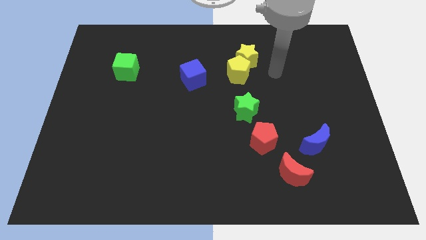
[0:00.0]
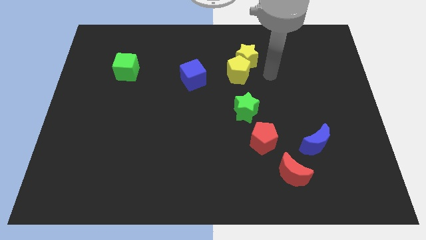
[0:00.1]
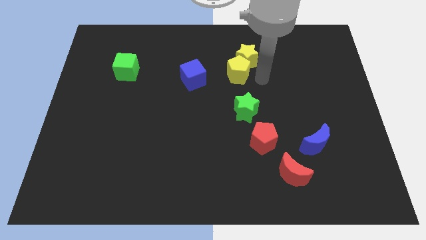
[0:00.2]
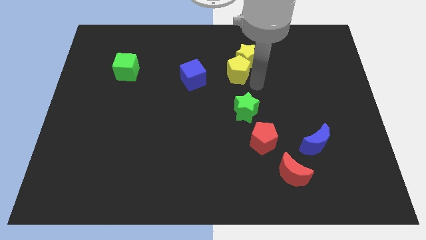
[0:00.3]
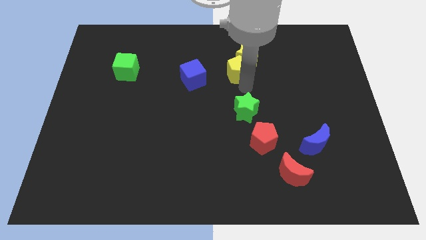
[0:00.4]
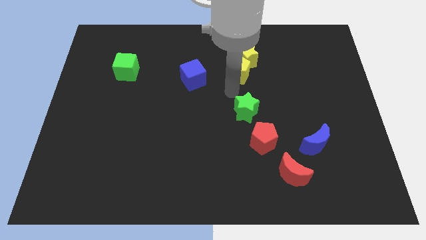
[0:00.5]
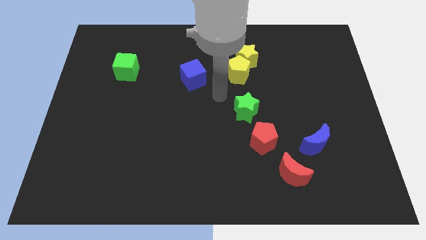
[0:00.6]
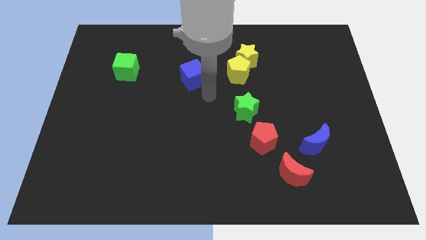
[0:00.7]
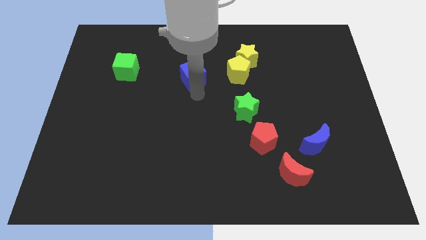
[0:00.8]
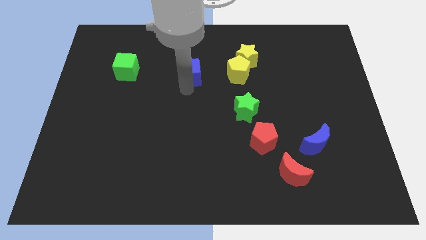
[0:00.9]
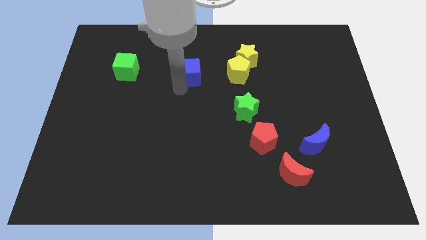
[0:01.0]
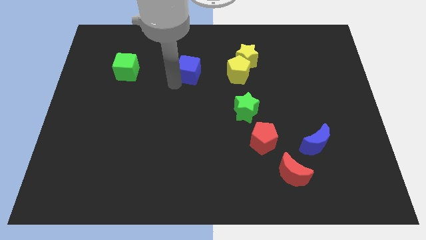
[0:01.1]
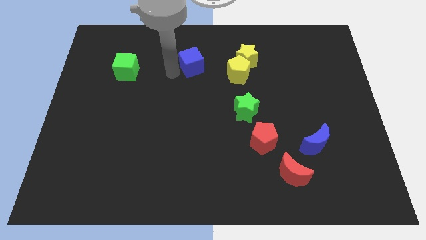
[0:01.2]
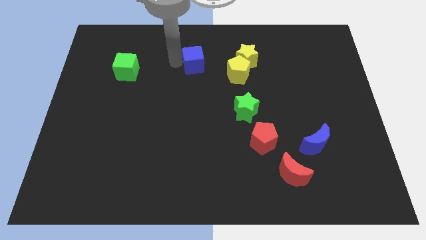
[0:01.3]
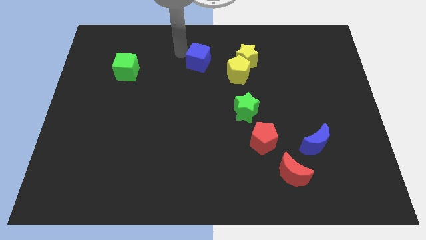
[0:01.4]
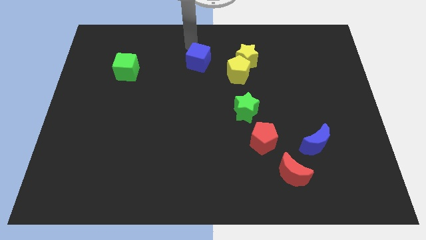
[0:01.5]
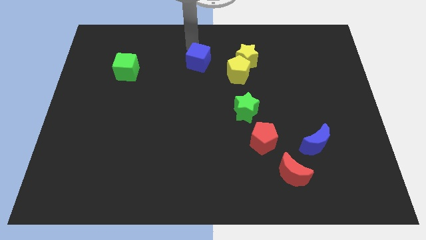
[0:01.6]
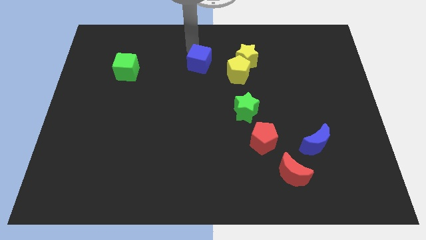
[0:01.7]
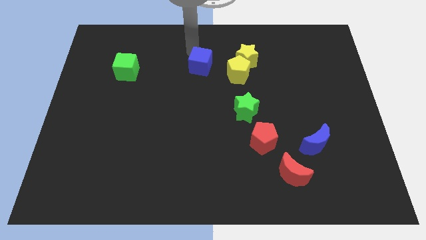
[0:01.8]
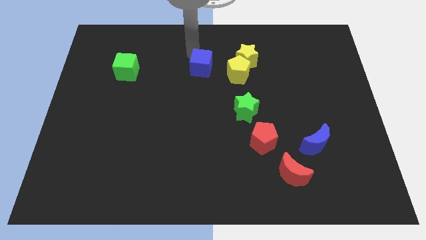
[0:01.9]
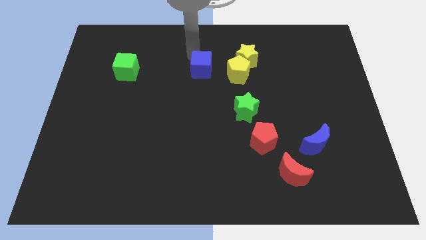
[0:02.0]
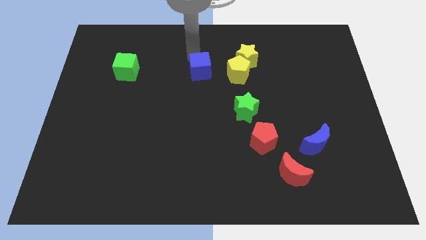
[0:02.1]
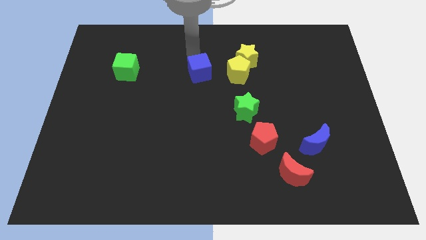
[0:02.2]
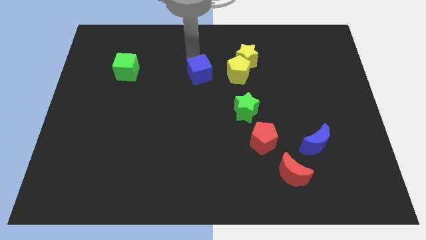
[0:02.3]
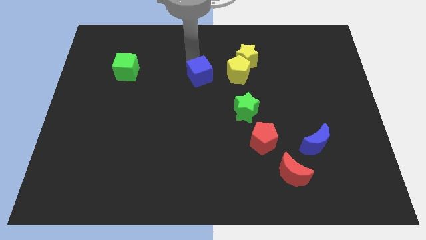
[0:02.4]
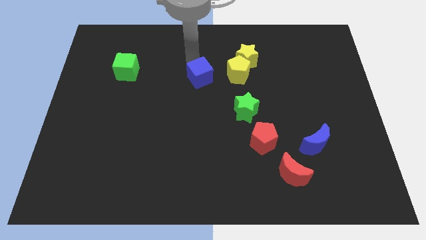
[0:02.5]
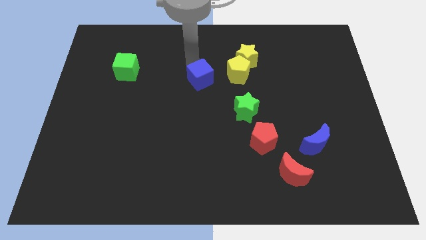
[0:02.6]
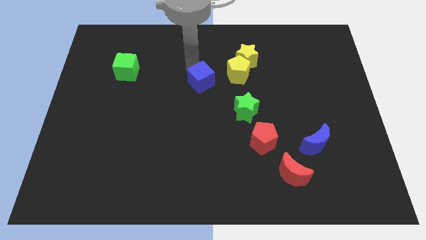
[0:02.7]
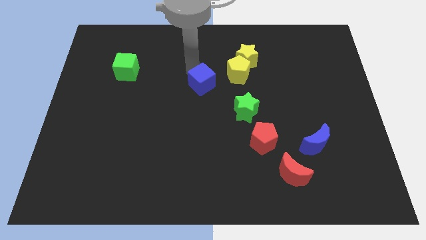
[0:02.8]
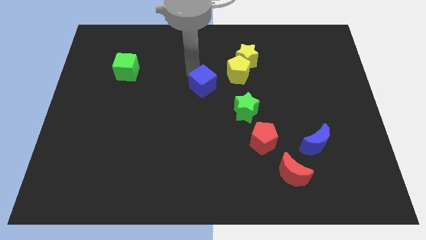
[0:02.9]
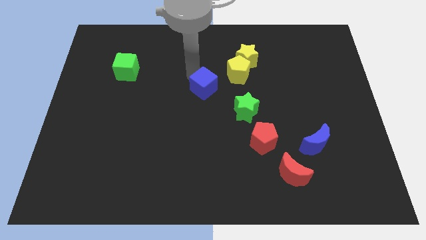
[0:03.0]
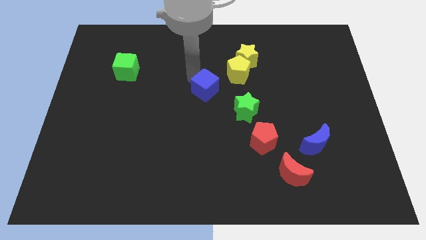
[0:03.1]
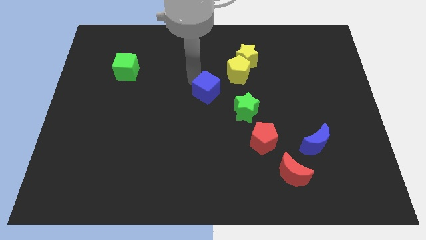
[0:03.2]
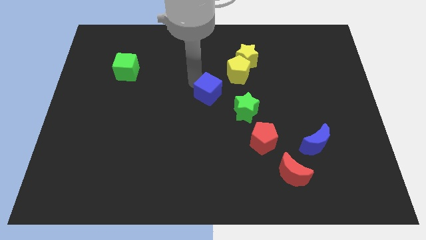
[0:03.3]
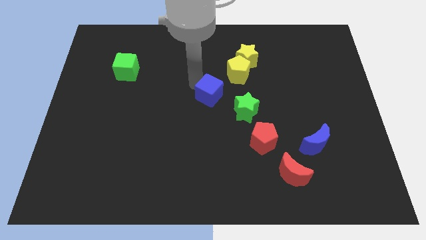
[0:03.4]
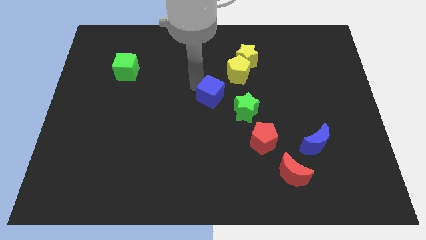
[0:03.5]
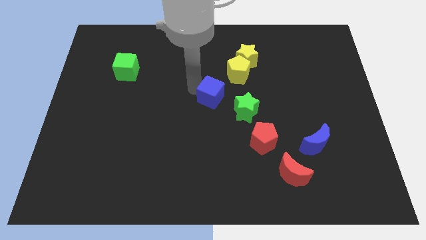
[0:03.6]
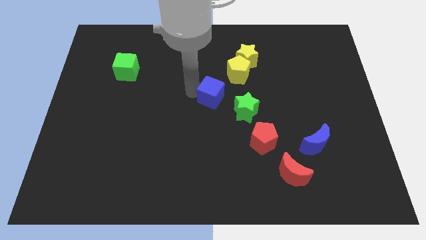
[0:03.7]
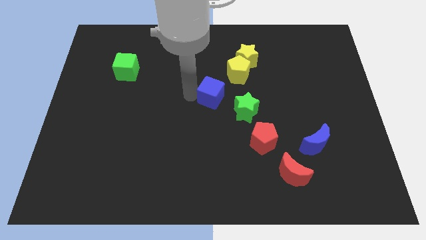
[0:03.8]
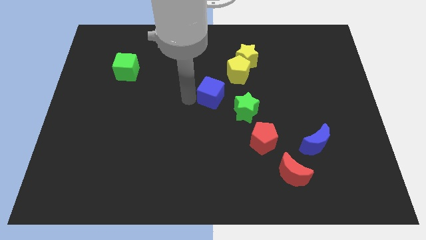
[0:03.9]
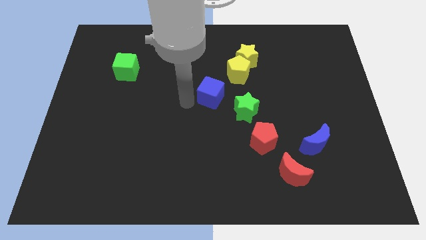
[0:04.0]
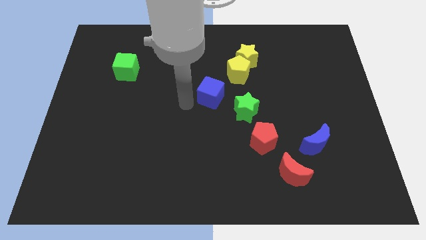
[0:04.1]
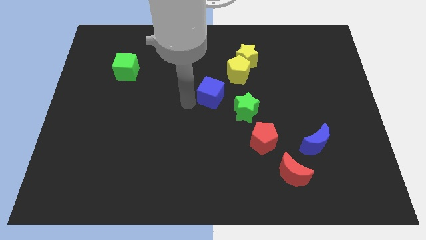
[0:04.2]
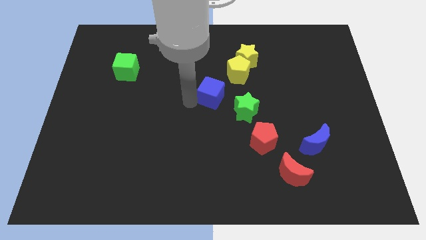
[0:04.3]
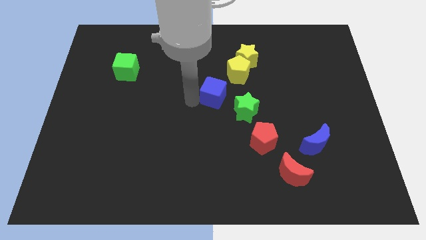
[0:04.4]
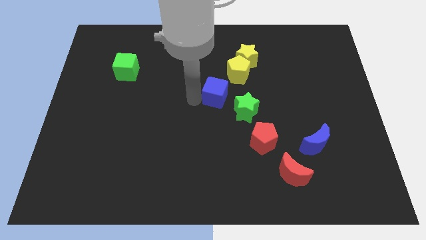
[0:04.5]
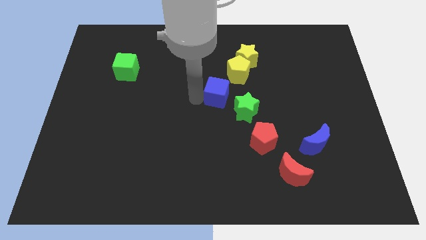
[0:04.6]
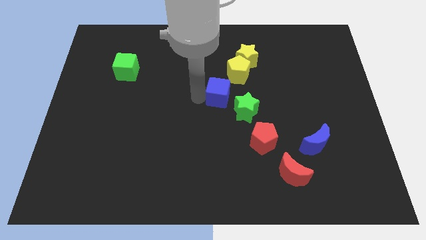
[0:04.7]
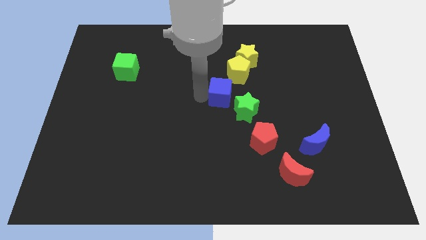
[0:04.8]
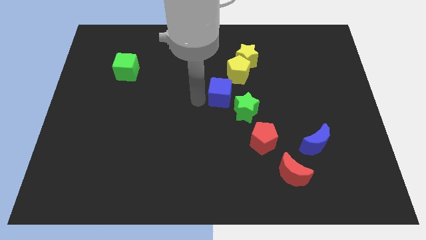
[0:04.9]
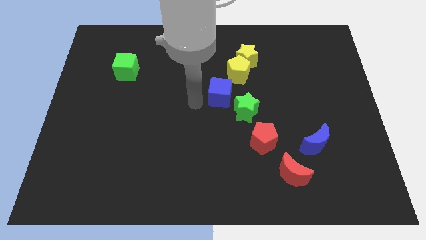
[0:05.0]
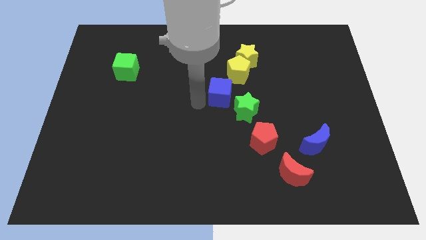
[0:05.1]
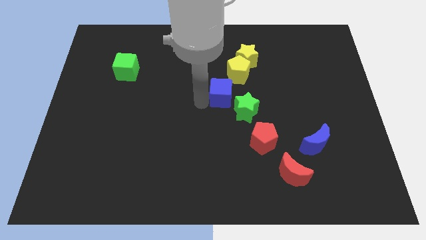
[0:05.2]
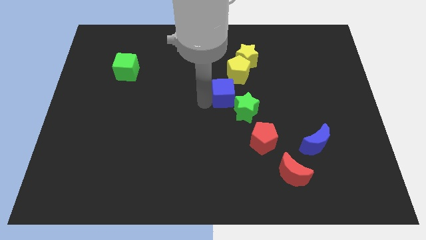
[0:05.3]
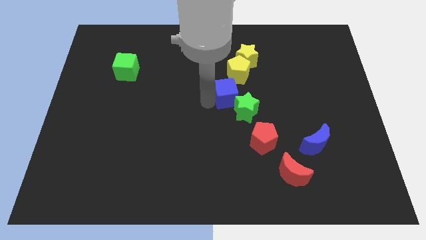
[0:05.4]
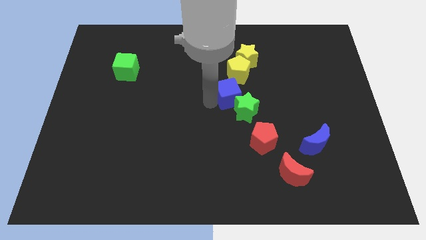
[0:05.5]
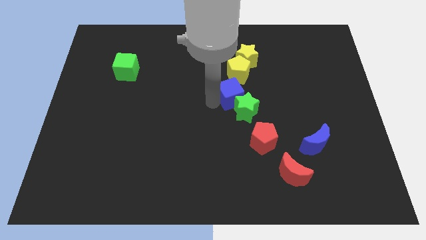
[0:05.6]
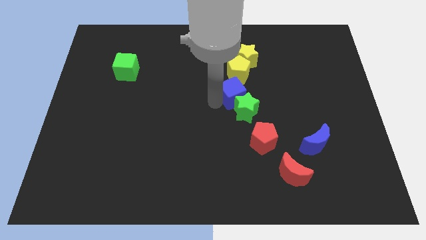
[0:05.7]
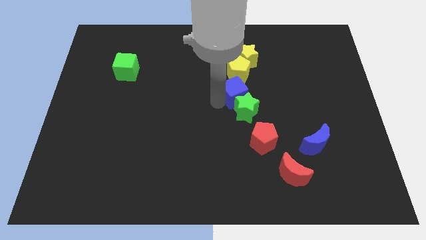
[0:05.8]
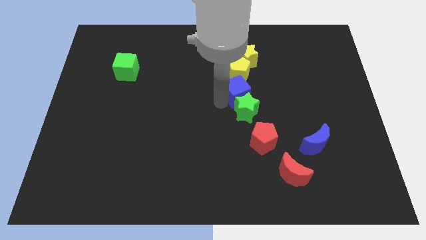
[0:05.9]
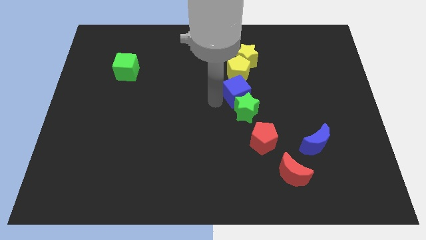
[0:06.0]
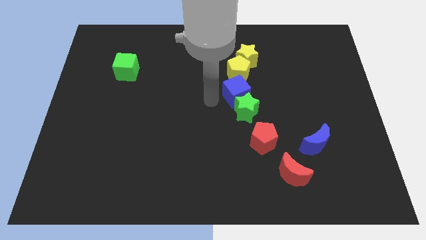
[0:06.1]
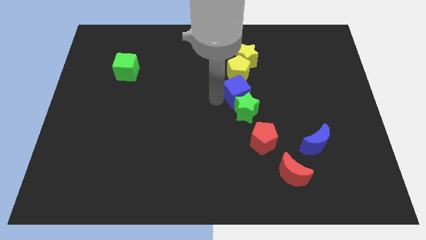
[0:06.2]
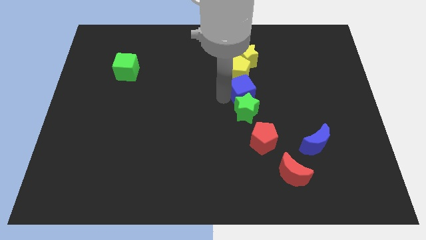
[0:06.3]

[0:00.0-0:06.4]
put the blue cube to the bottom right of the yellow pentagon
